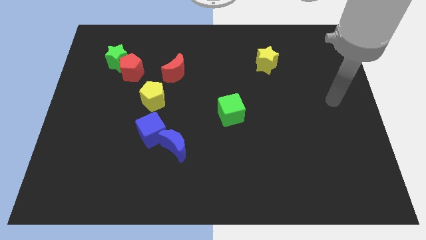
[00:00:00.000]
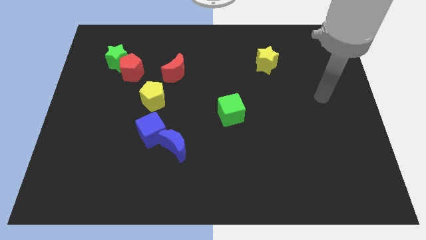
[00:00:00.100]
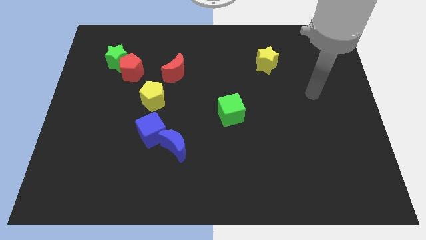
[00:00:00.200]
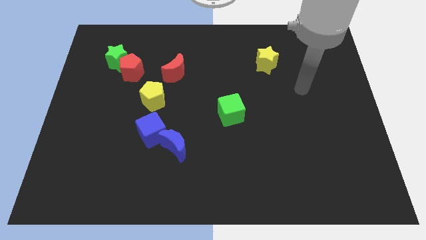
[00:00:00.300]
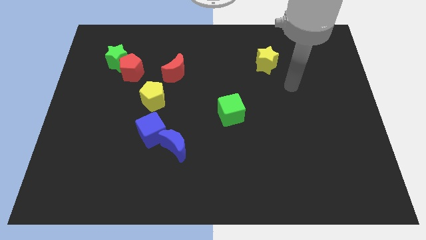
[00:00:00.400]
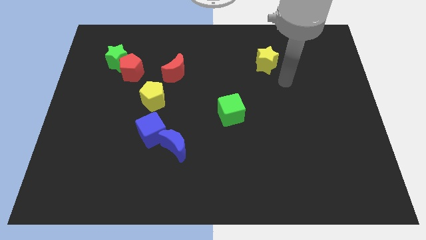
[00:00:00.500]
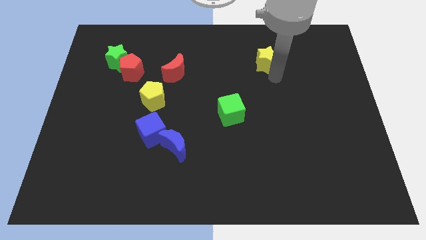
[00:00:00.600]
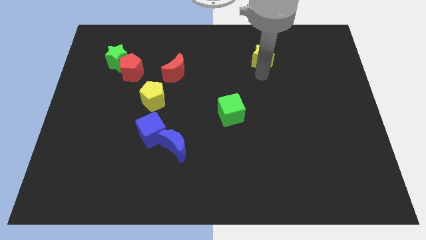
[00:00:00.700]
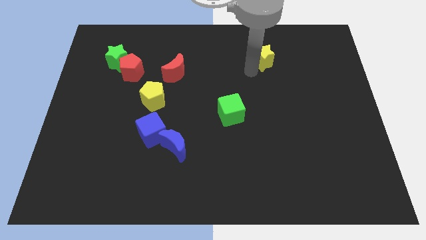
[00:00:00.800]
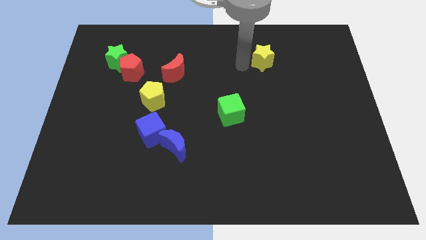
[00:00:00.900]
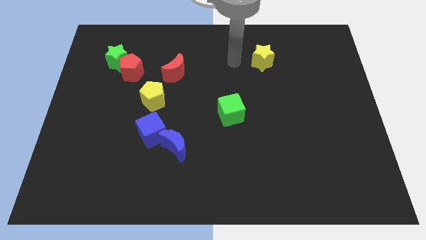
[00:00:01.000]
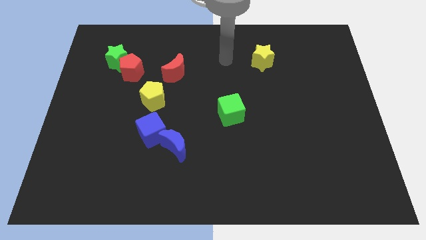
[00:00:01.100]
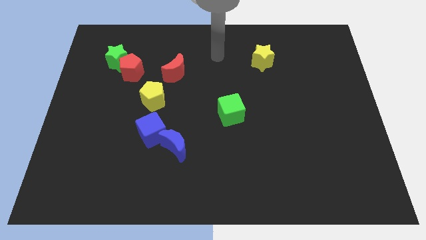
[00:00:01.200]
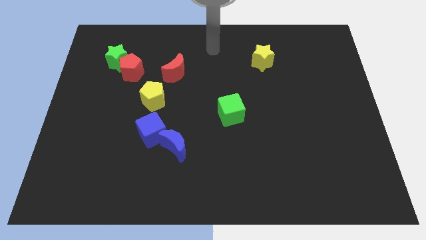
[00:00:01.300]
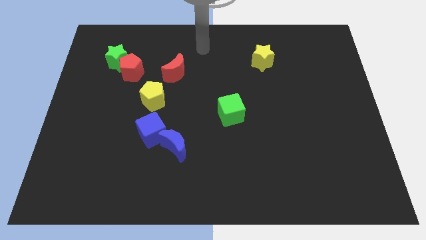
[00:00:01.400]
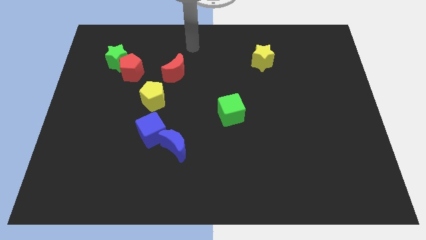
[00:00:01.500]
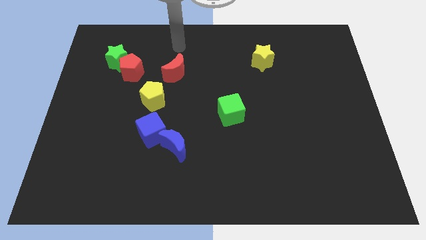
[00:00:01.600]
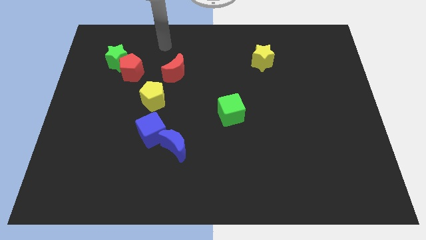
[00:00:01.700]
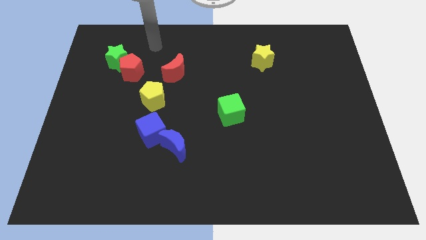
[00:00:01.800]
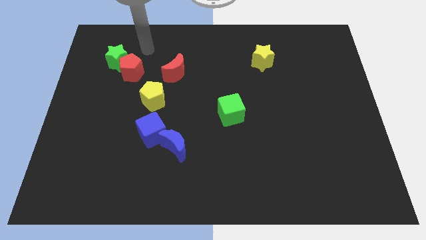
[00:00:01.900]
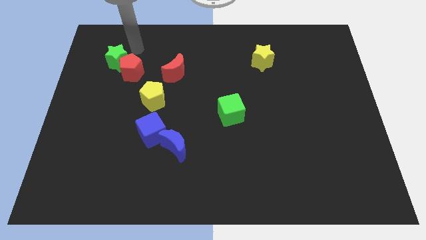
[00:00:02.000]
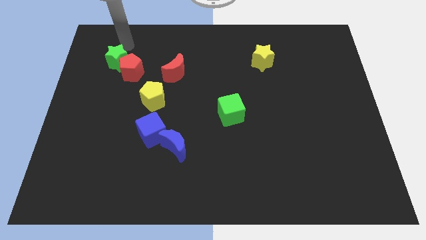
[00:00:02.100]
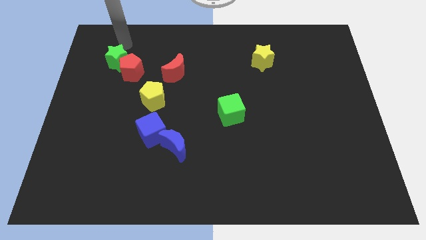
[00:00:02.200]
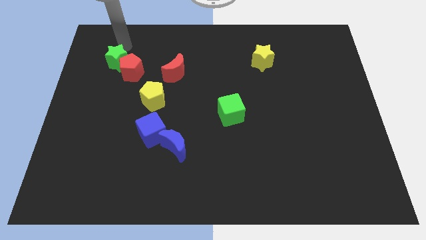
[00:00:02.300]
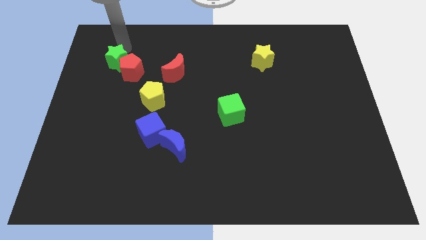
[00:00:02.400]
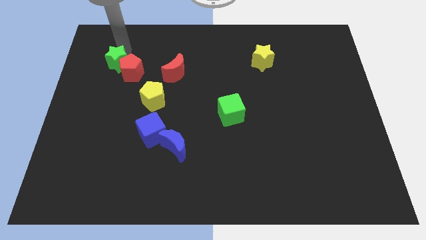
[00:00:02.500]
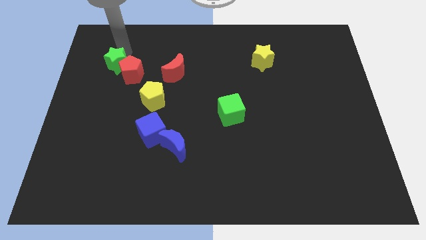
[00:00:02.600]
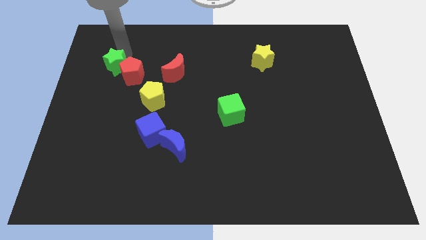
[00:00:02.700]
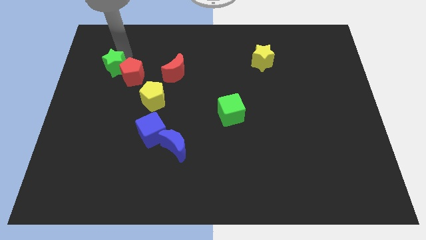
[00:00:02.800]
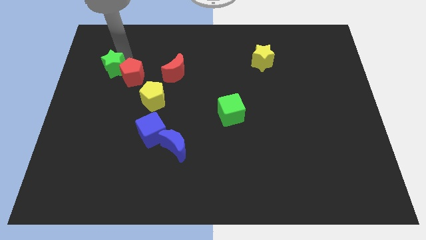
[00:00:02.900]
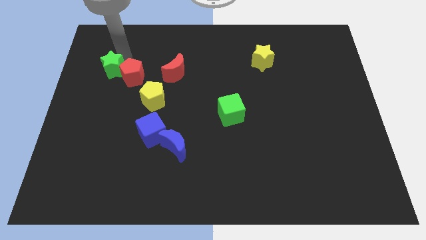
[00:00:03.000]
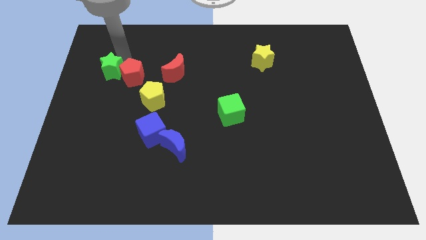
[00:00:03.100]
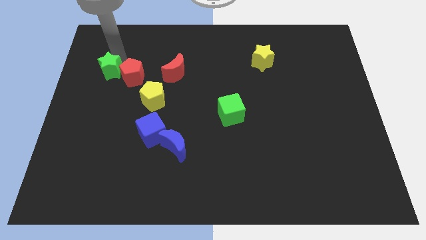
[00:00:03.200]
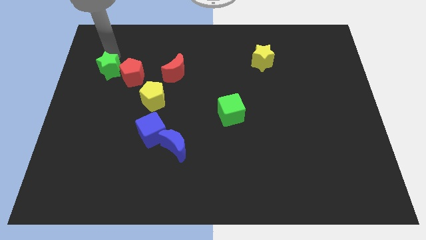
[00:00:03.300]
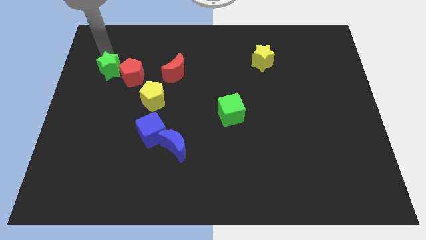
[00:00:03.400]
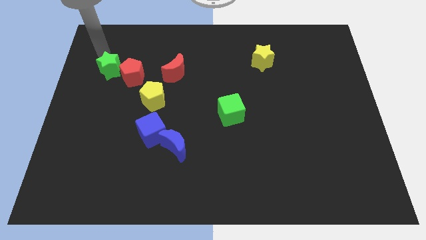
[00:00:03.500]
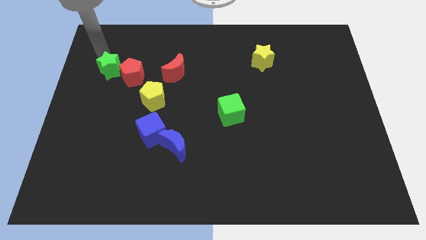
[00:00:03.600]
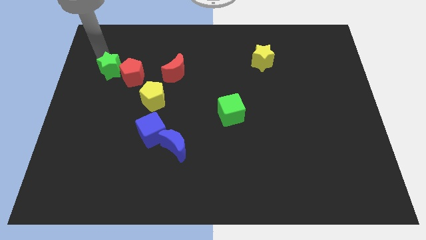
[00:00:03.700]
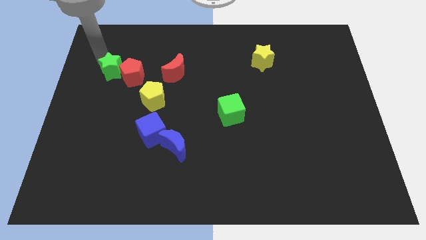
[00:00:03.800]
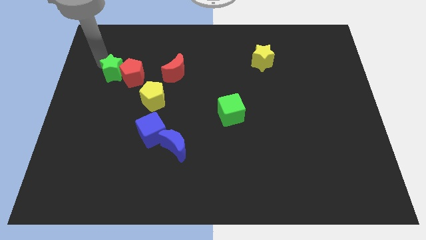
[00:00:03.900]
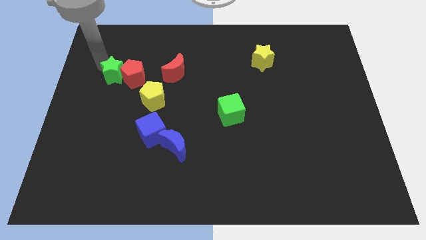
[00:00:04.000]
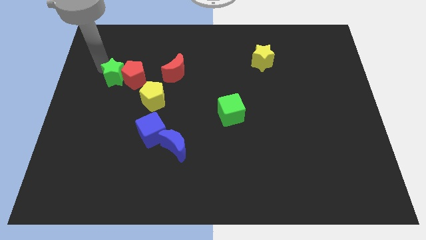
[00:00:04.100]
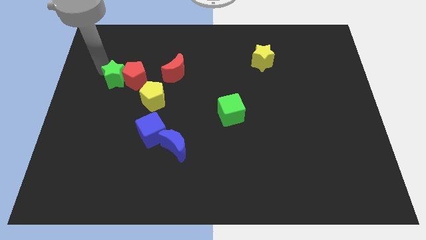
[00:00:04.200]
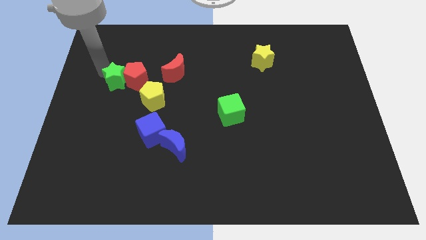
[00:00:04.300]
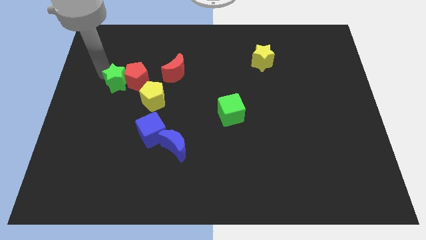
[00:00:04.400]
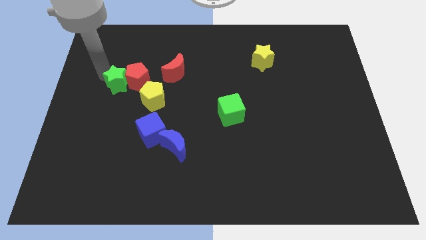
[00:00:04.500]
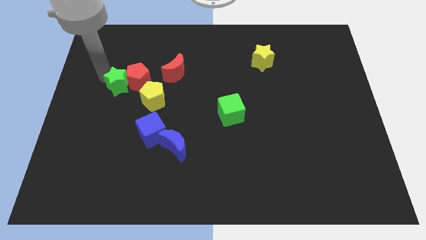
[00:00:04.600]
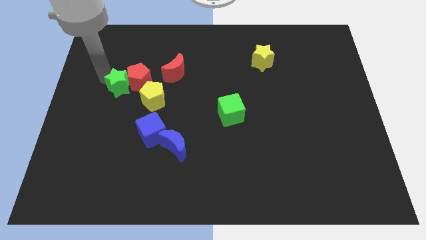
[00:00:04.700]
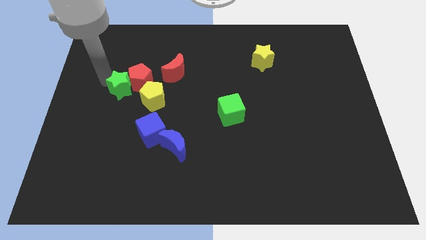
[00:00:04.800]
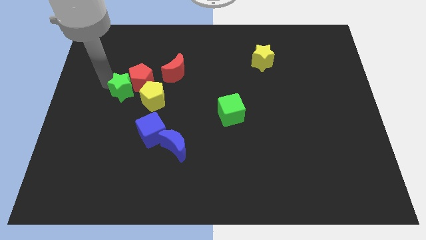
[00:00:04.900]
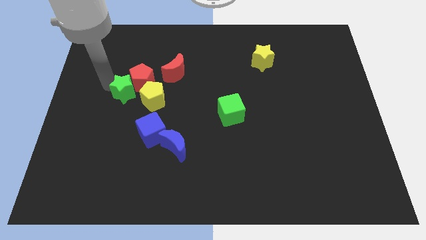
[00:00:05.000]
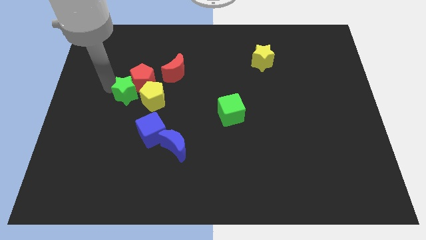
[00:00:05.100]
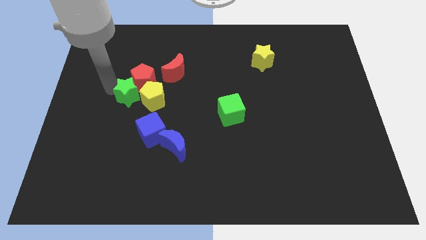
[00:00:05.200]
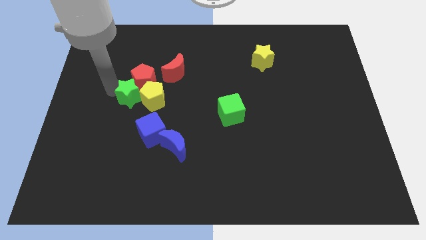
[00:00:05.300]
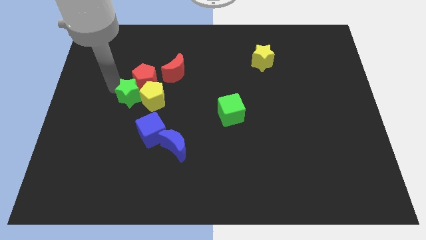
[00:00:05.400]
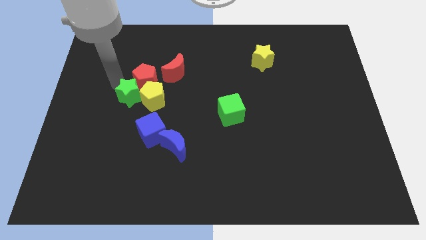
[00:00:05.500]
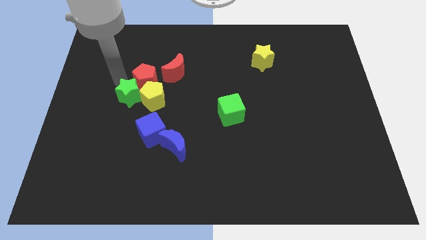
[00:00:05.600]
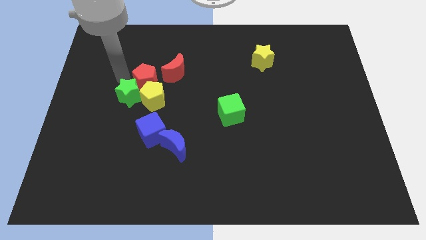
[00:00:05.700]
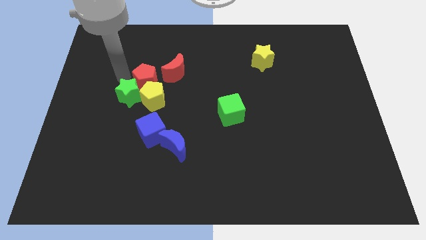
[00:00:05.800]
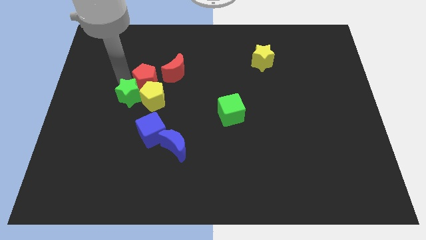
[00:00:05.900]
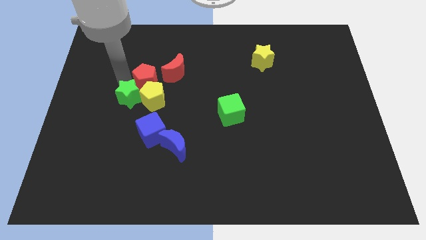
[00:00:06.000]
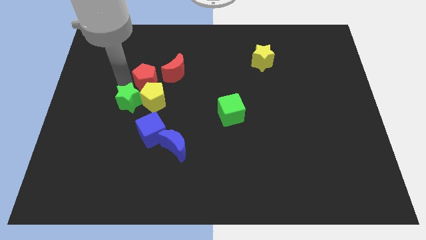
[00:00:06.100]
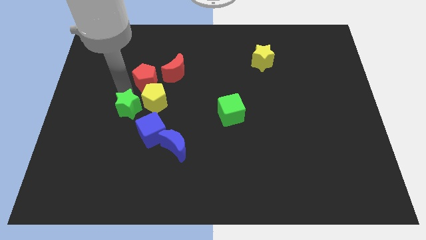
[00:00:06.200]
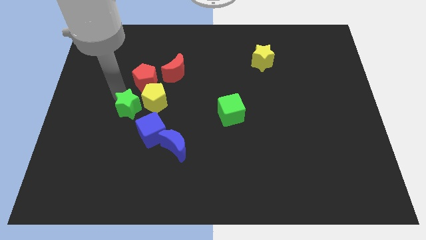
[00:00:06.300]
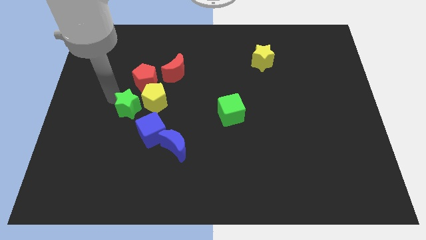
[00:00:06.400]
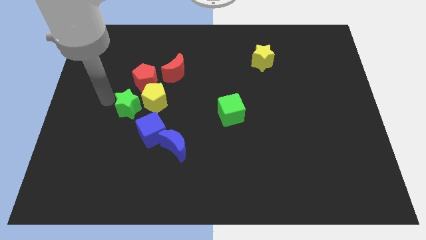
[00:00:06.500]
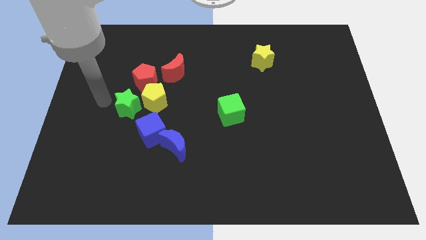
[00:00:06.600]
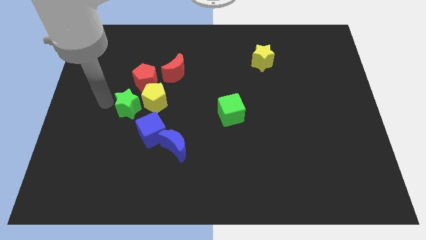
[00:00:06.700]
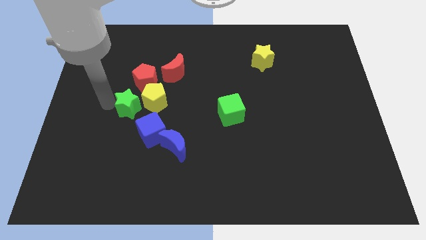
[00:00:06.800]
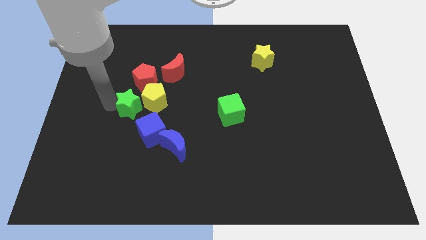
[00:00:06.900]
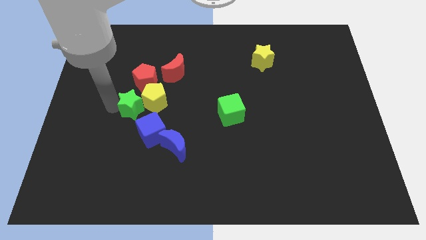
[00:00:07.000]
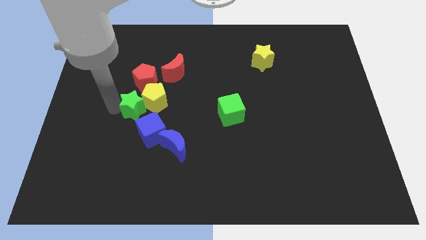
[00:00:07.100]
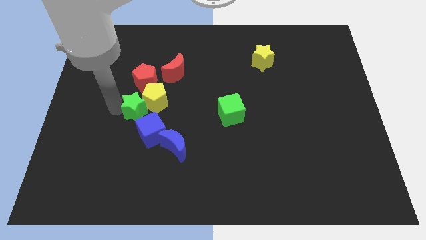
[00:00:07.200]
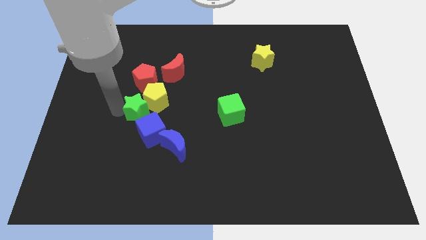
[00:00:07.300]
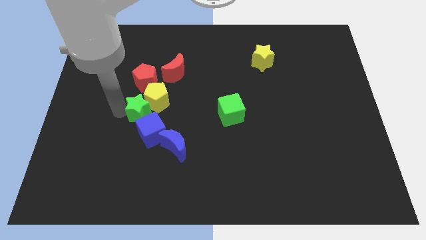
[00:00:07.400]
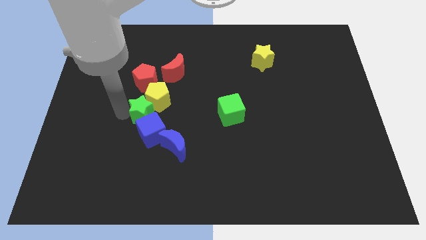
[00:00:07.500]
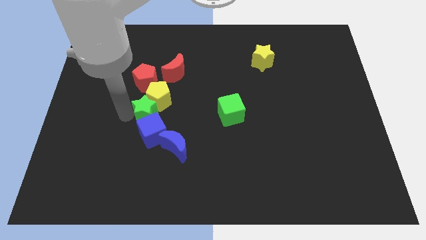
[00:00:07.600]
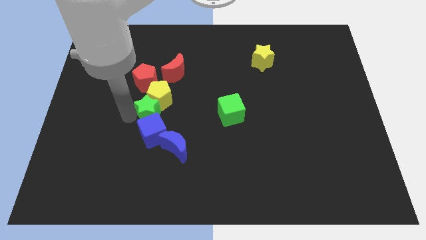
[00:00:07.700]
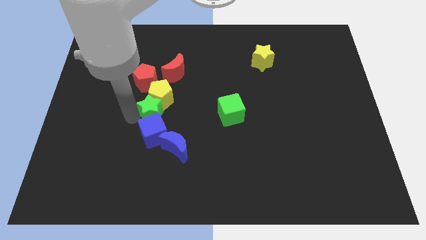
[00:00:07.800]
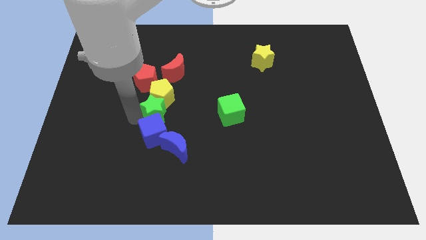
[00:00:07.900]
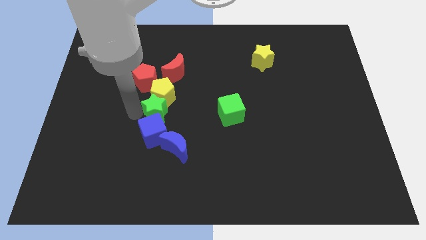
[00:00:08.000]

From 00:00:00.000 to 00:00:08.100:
push the green star diagonally down and to the right
